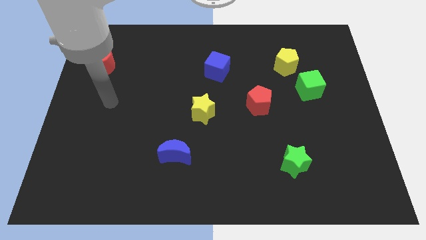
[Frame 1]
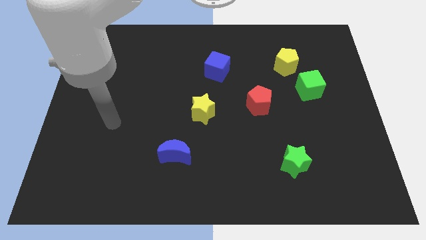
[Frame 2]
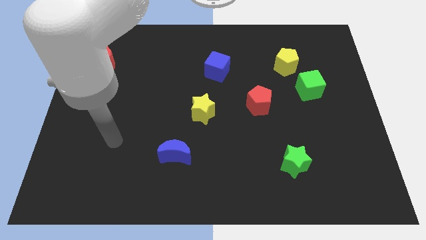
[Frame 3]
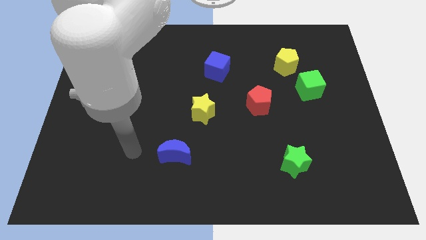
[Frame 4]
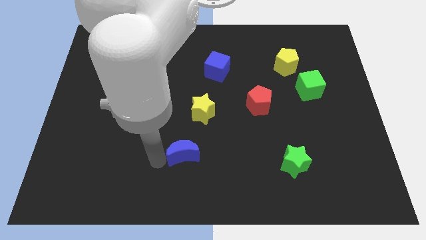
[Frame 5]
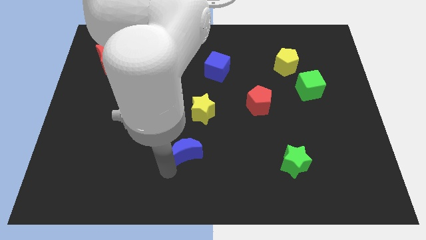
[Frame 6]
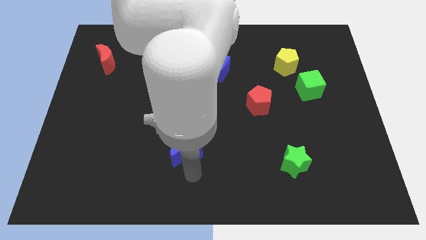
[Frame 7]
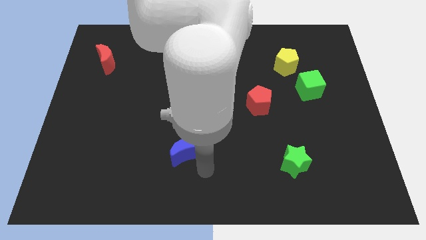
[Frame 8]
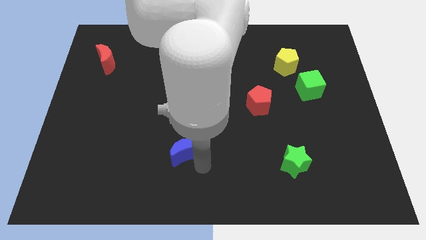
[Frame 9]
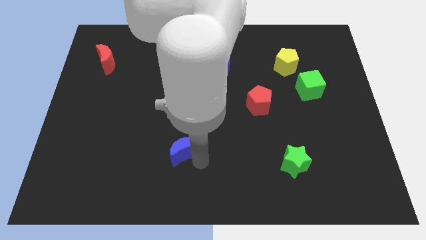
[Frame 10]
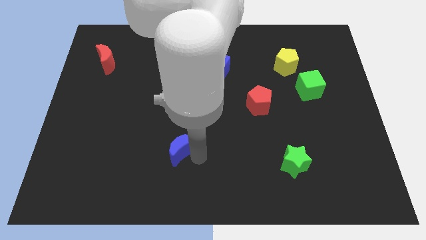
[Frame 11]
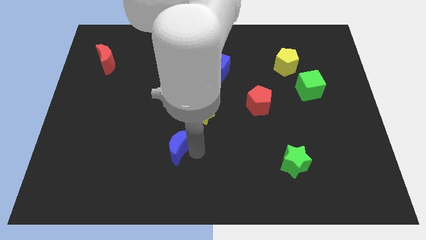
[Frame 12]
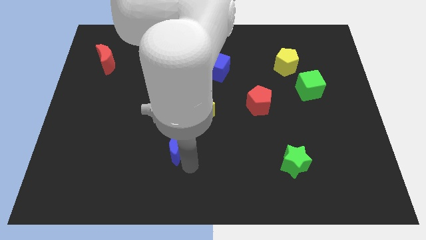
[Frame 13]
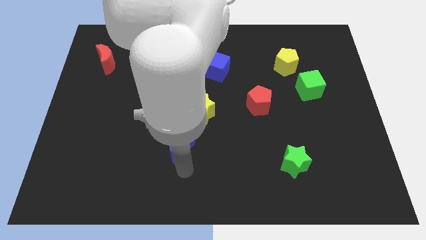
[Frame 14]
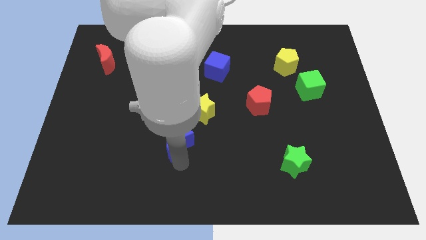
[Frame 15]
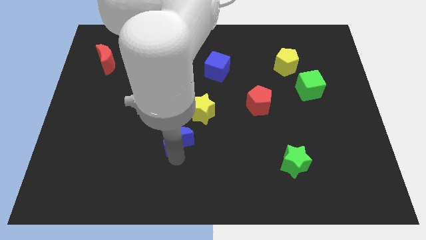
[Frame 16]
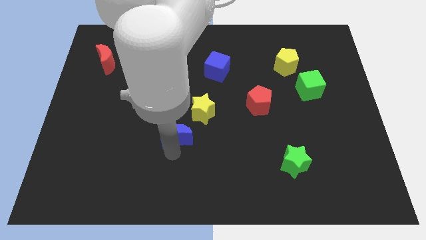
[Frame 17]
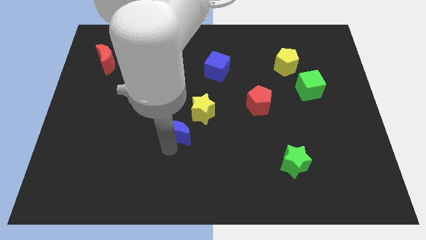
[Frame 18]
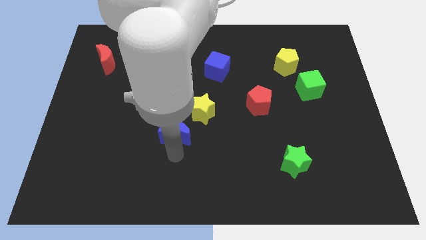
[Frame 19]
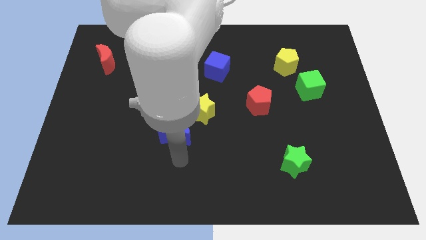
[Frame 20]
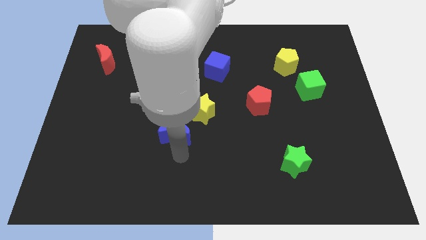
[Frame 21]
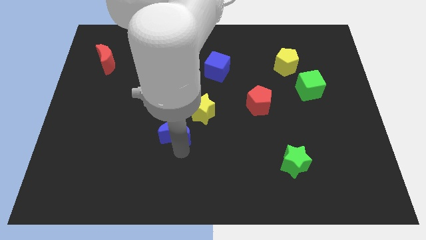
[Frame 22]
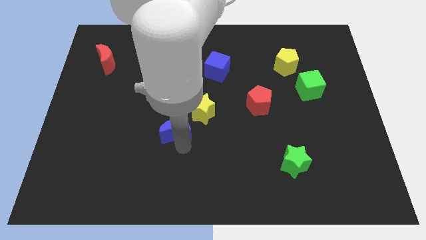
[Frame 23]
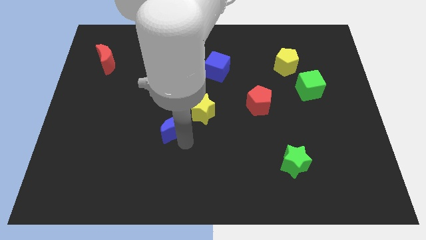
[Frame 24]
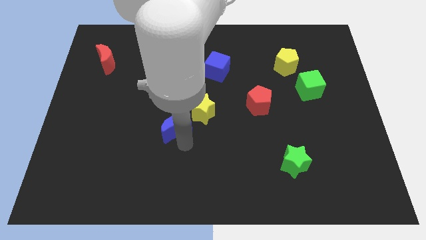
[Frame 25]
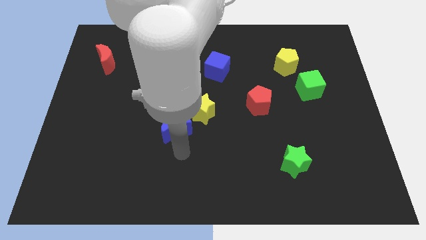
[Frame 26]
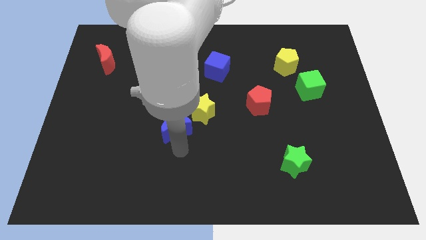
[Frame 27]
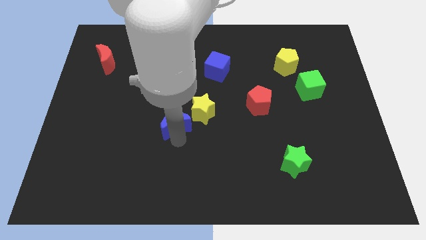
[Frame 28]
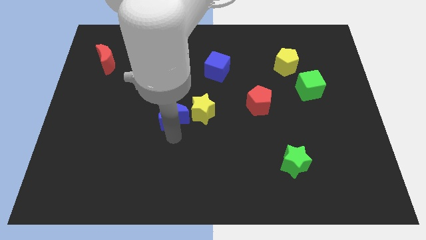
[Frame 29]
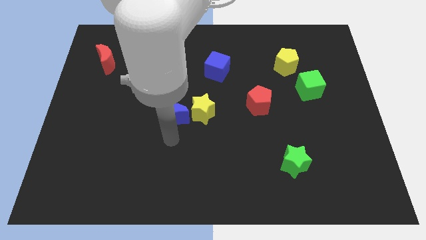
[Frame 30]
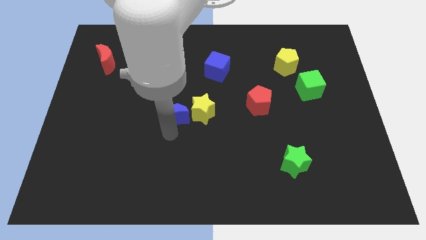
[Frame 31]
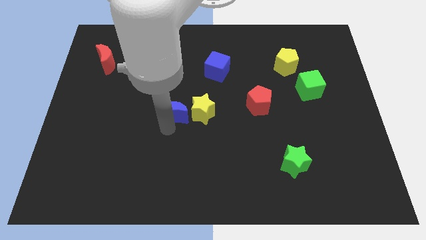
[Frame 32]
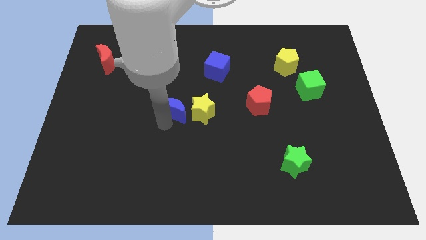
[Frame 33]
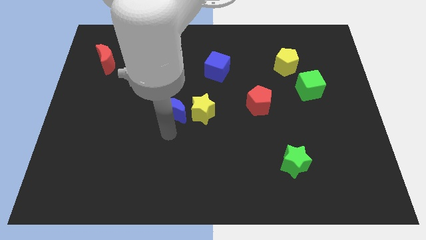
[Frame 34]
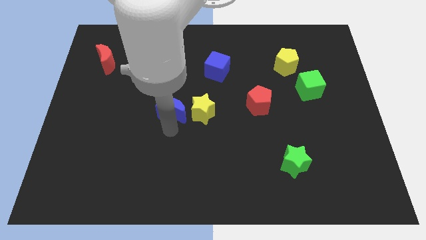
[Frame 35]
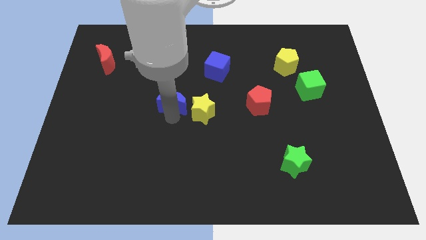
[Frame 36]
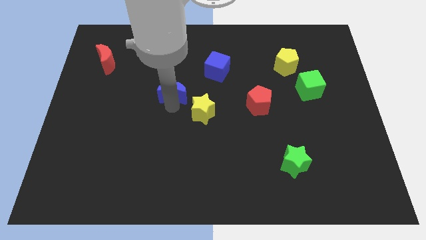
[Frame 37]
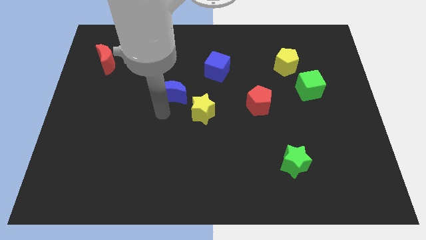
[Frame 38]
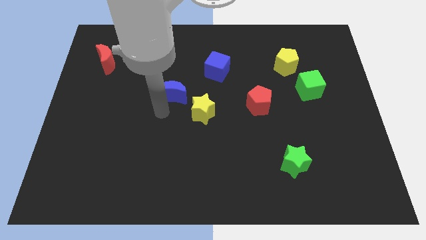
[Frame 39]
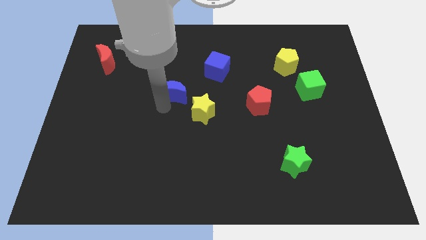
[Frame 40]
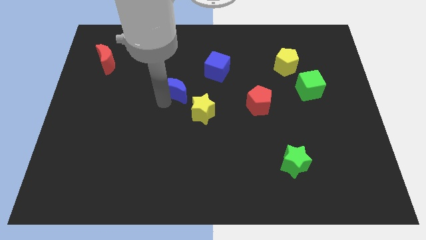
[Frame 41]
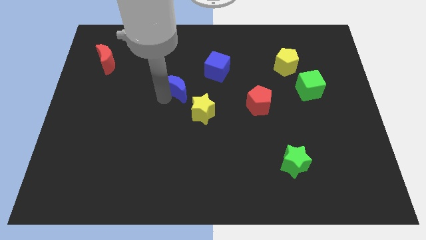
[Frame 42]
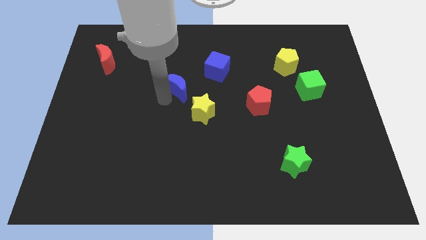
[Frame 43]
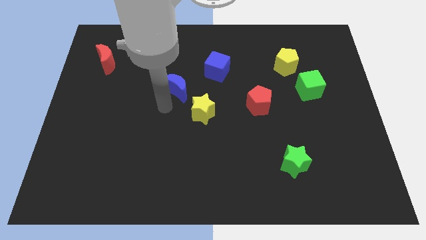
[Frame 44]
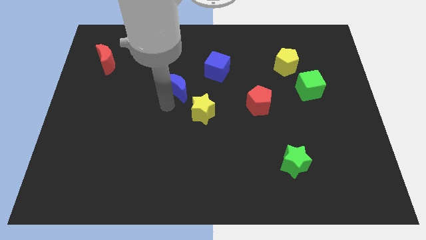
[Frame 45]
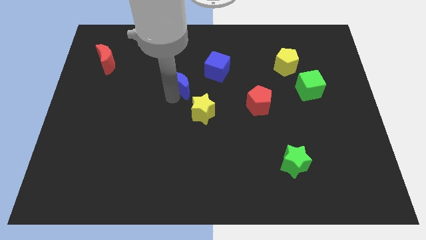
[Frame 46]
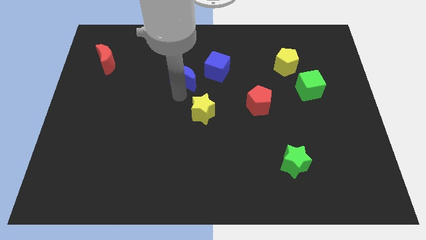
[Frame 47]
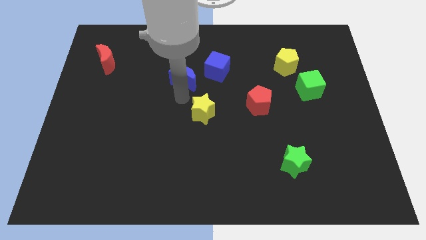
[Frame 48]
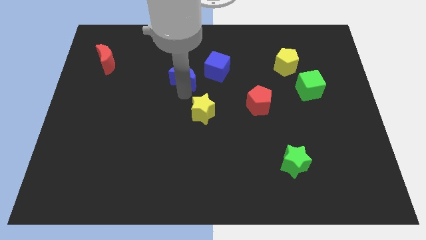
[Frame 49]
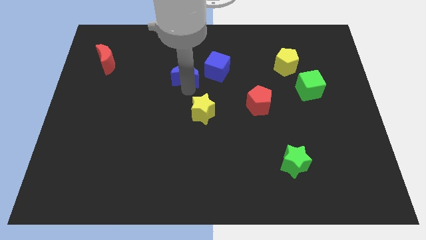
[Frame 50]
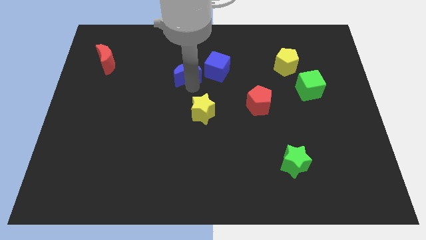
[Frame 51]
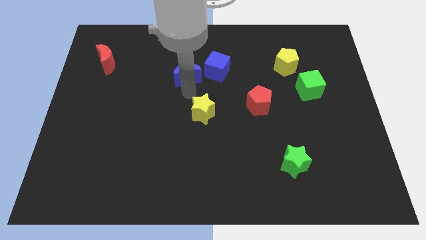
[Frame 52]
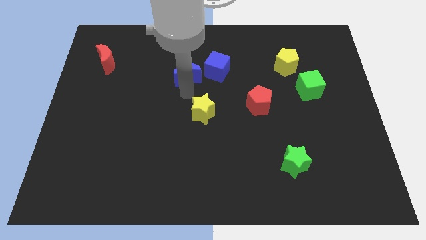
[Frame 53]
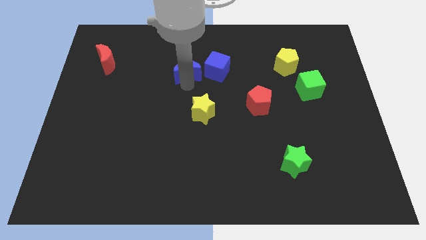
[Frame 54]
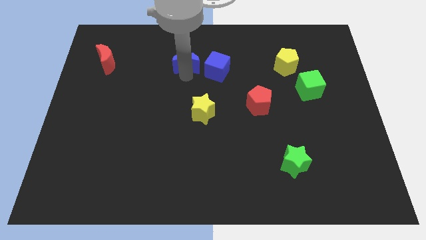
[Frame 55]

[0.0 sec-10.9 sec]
move the blue moon diagonally up and to the left of the blue cube

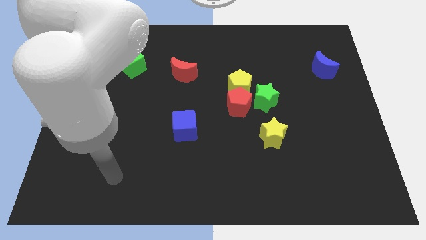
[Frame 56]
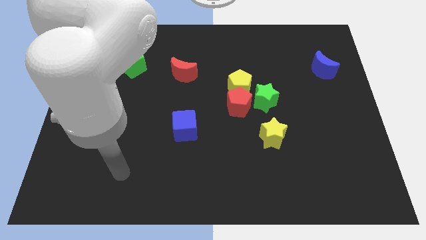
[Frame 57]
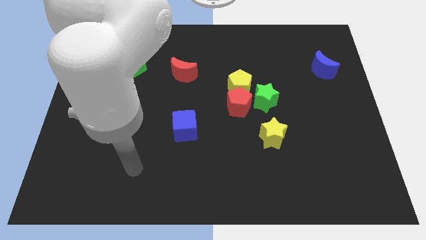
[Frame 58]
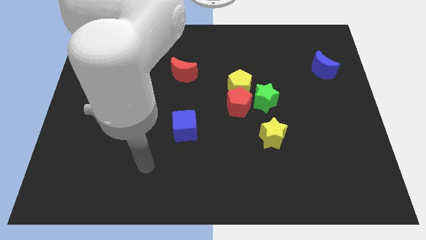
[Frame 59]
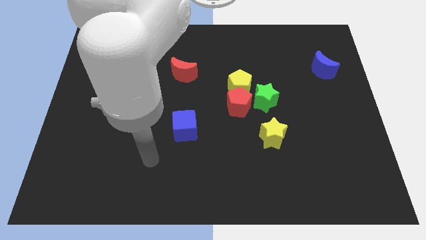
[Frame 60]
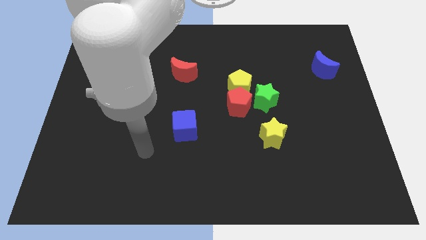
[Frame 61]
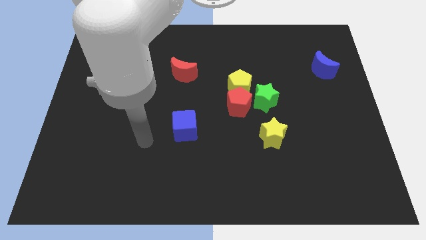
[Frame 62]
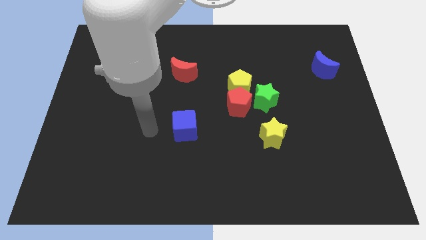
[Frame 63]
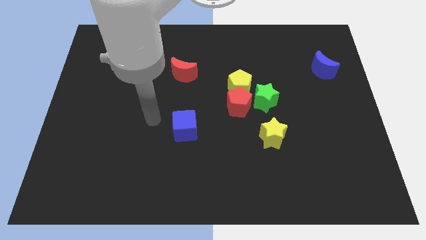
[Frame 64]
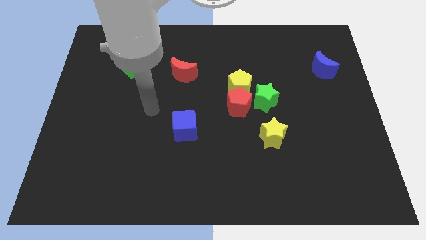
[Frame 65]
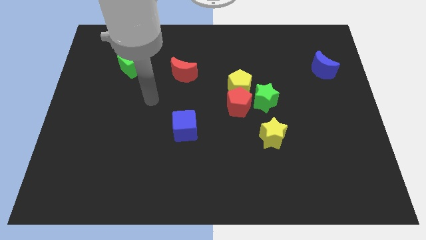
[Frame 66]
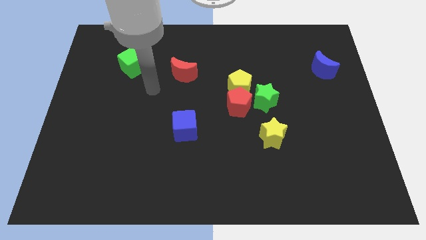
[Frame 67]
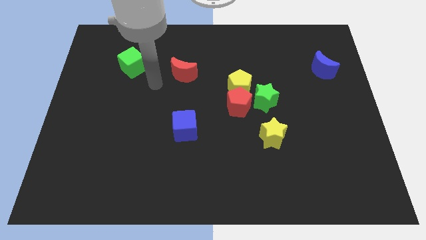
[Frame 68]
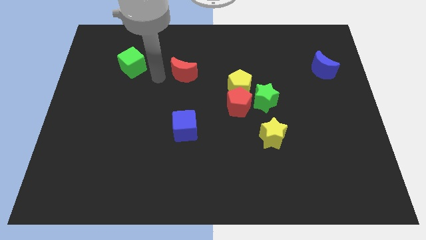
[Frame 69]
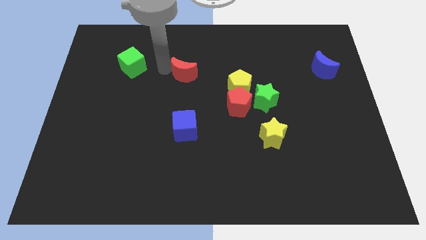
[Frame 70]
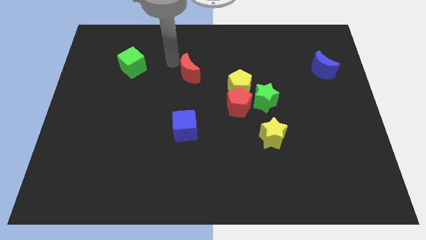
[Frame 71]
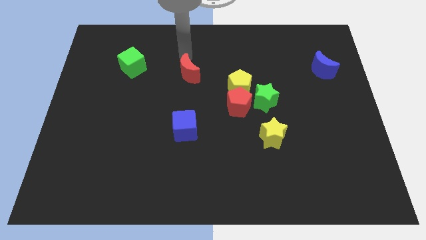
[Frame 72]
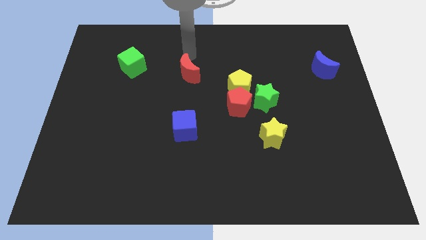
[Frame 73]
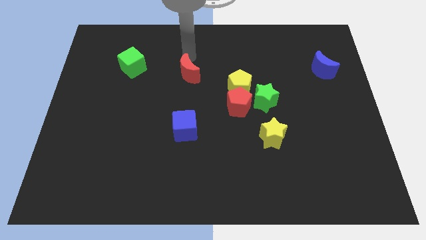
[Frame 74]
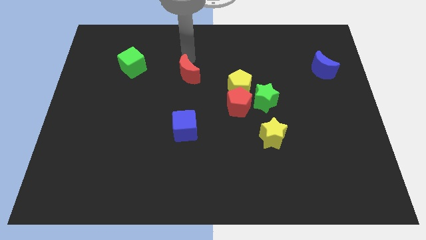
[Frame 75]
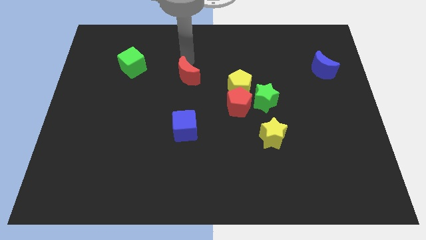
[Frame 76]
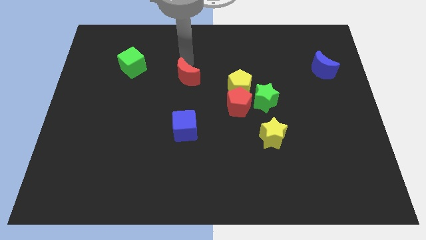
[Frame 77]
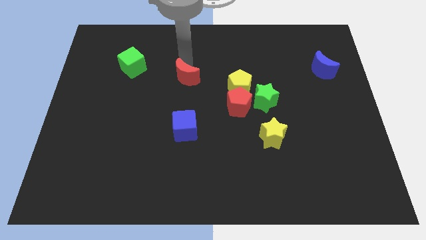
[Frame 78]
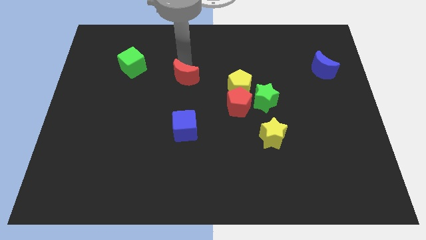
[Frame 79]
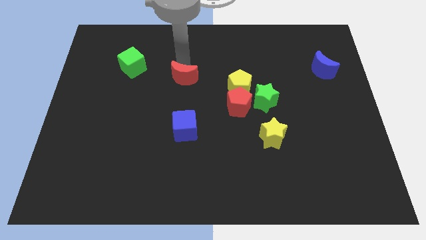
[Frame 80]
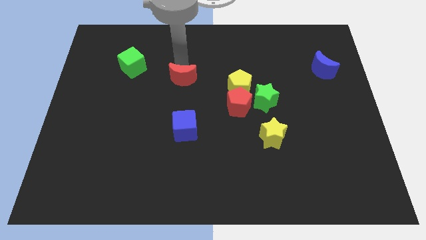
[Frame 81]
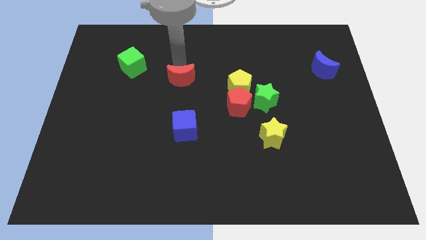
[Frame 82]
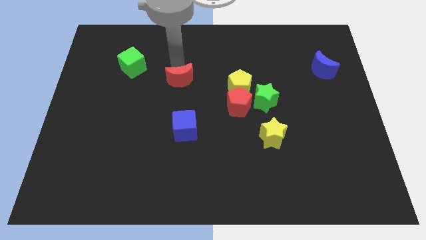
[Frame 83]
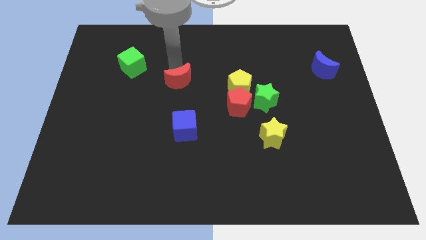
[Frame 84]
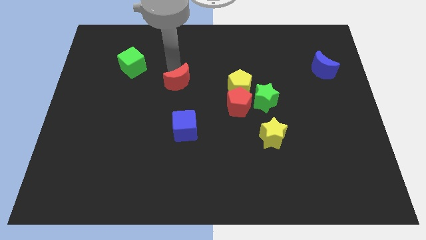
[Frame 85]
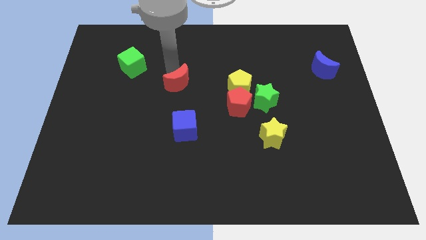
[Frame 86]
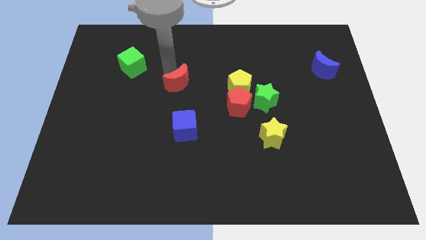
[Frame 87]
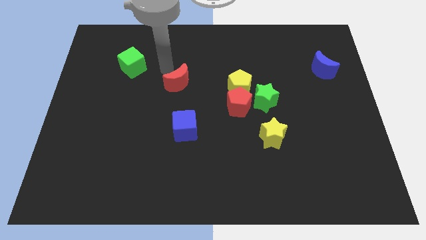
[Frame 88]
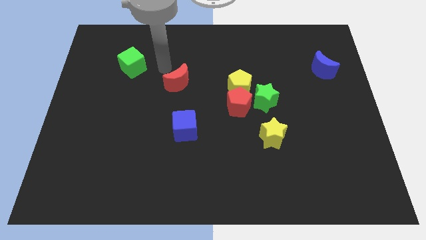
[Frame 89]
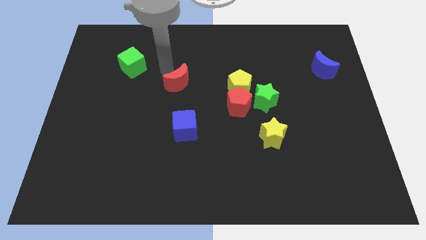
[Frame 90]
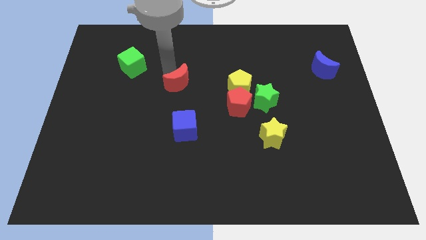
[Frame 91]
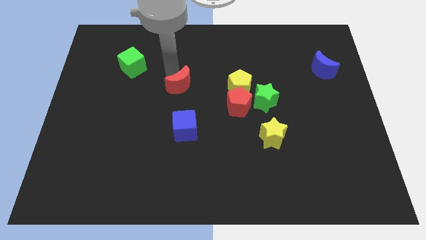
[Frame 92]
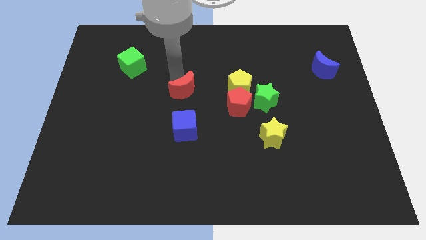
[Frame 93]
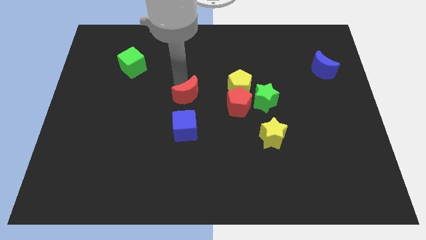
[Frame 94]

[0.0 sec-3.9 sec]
slide the red moon to the left side of the red pentagon
